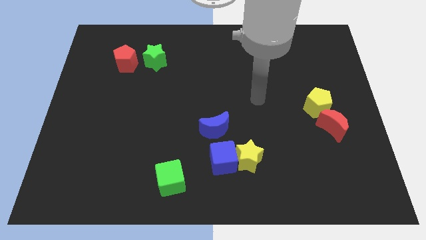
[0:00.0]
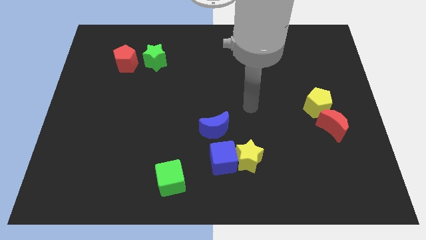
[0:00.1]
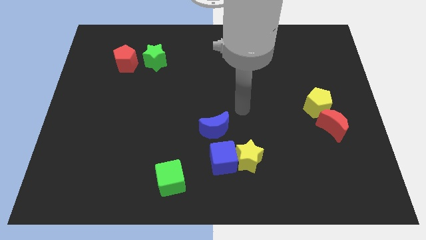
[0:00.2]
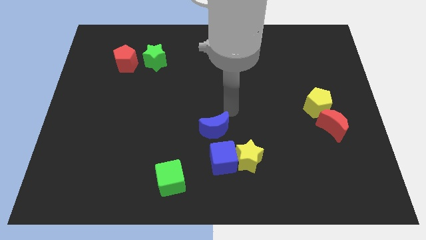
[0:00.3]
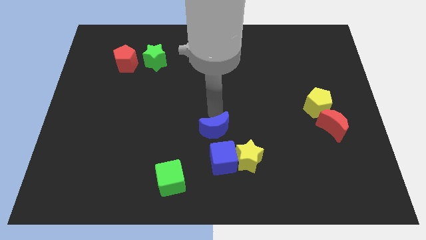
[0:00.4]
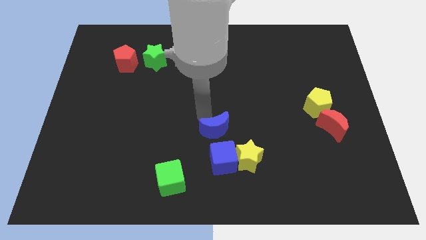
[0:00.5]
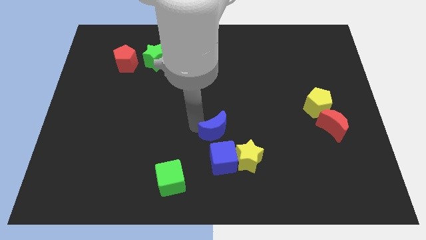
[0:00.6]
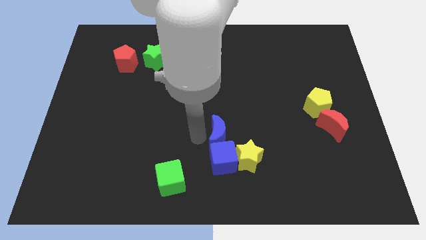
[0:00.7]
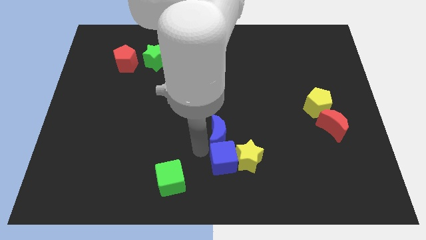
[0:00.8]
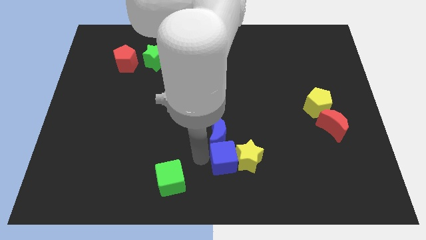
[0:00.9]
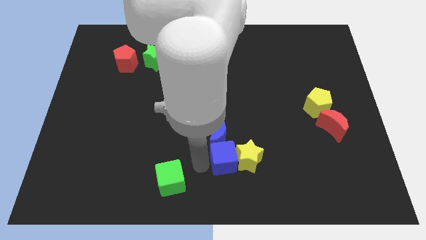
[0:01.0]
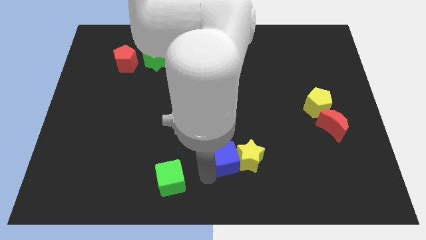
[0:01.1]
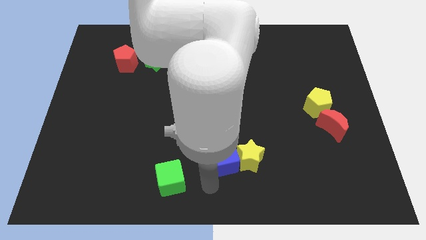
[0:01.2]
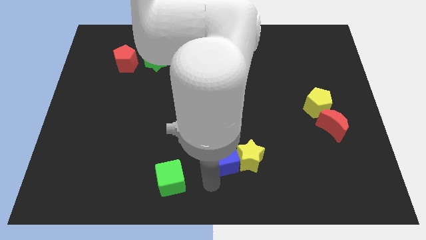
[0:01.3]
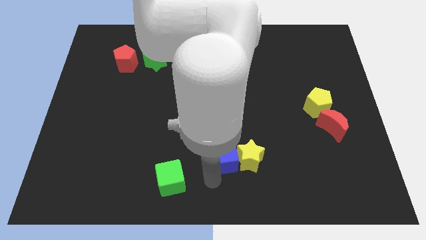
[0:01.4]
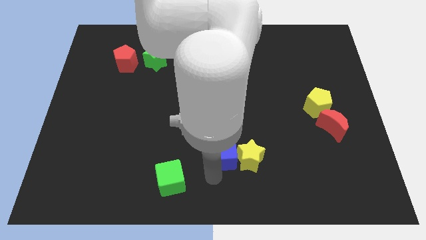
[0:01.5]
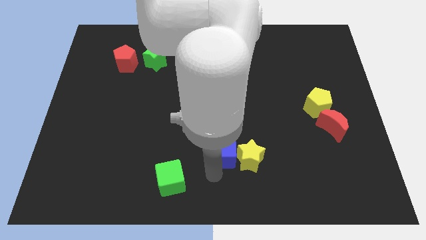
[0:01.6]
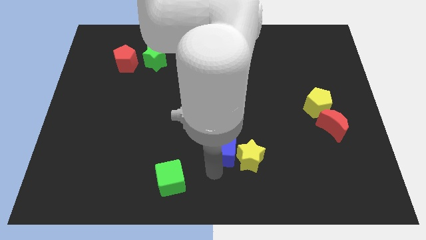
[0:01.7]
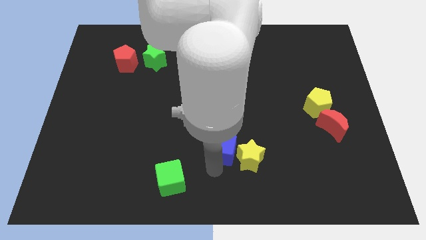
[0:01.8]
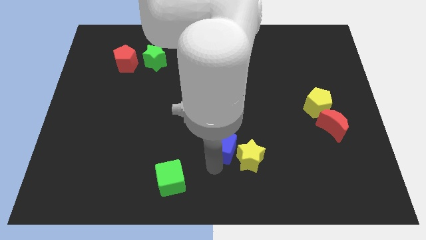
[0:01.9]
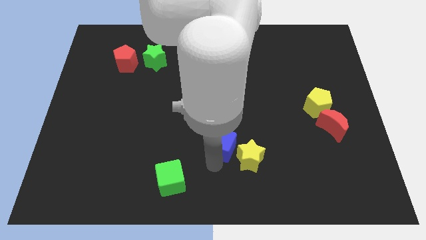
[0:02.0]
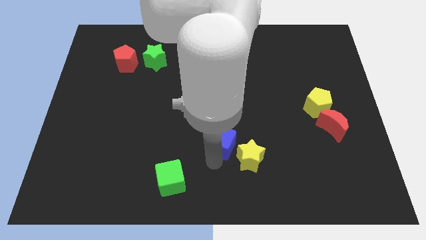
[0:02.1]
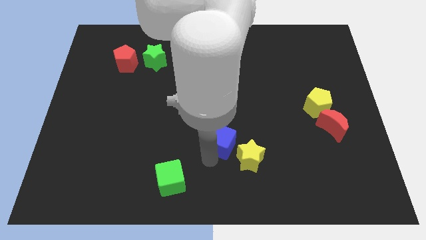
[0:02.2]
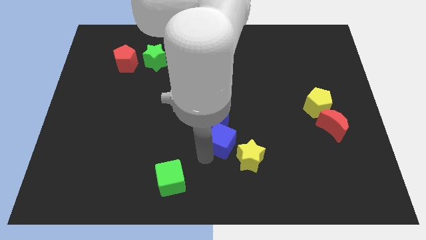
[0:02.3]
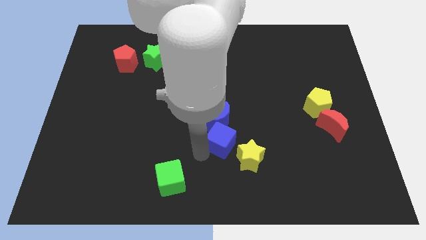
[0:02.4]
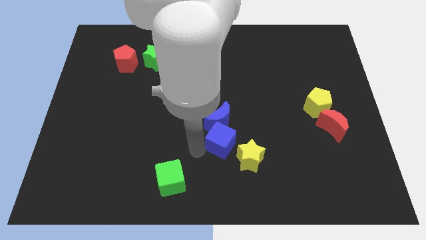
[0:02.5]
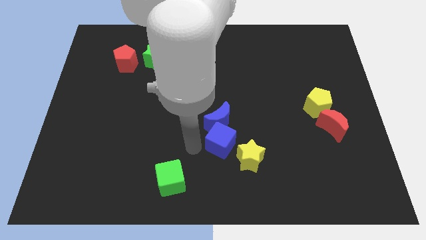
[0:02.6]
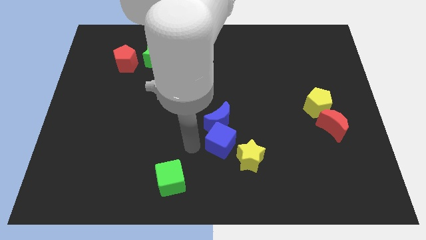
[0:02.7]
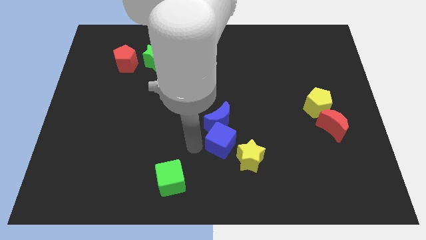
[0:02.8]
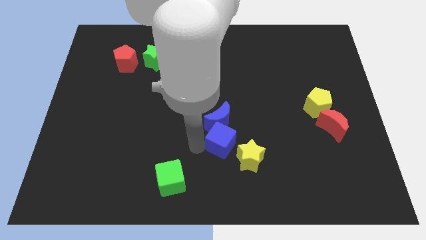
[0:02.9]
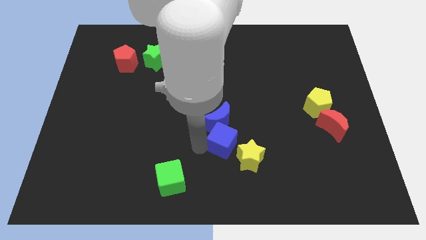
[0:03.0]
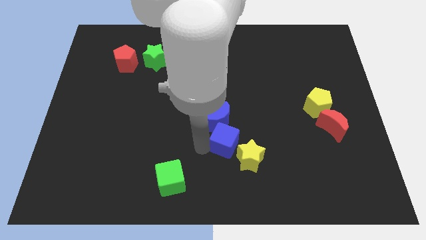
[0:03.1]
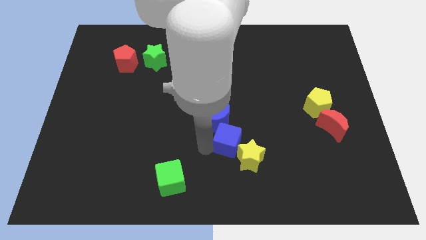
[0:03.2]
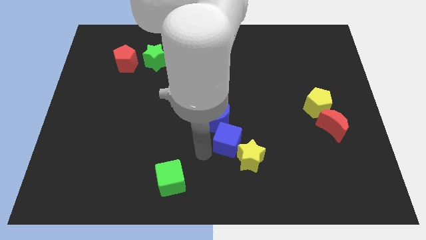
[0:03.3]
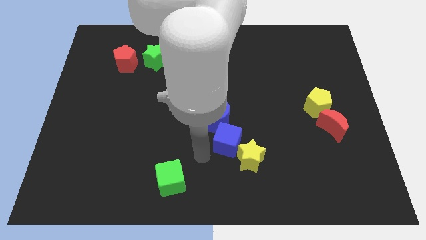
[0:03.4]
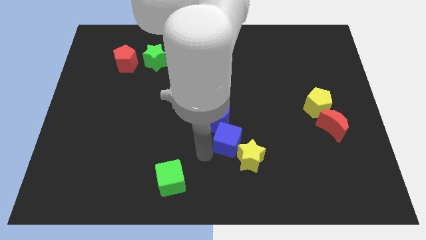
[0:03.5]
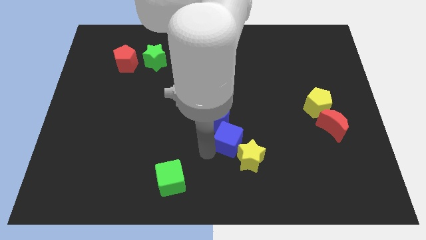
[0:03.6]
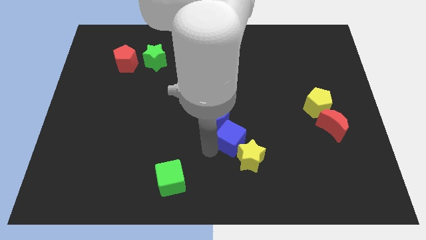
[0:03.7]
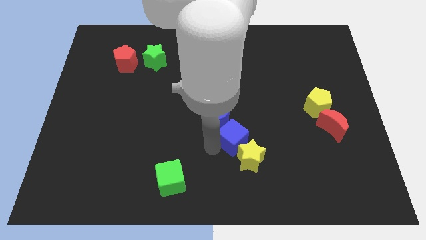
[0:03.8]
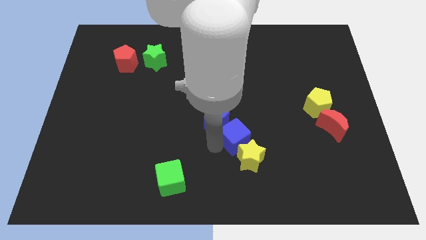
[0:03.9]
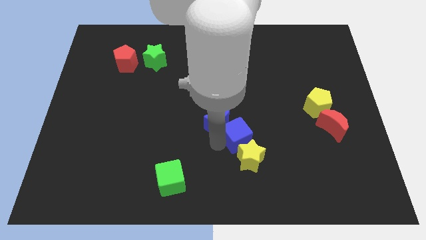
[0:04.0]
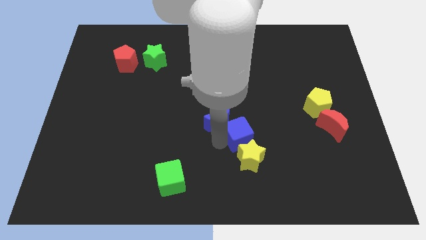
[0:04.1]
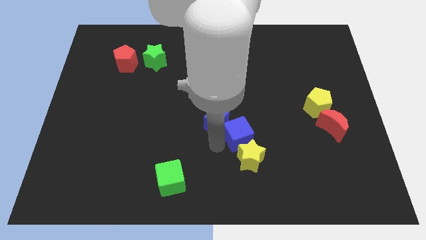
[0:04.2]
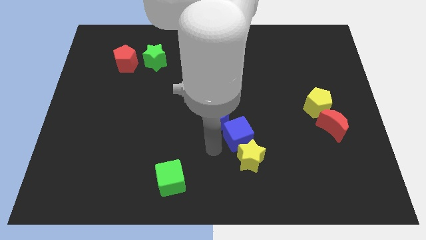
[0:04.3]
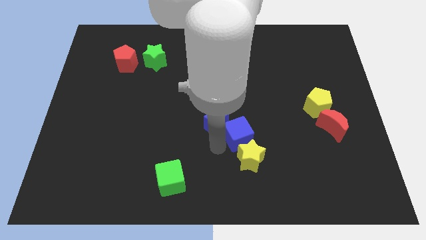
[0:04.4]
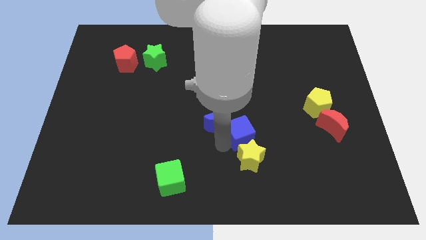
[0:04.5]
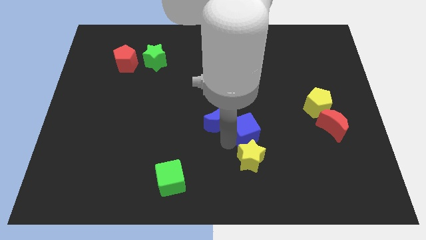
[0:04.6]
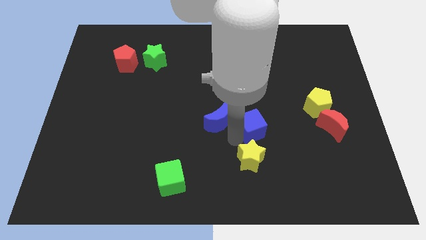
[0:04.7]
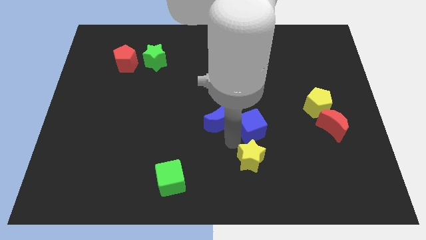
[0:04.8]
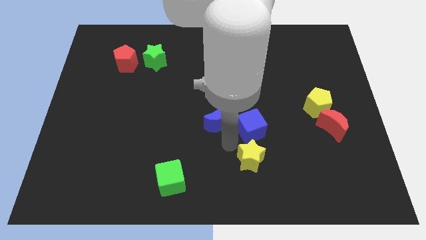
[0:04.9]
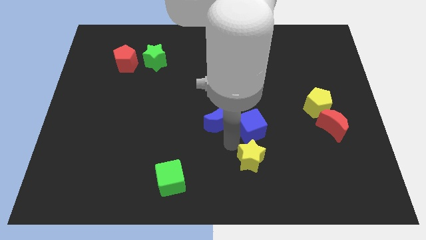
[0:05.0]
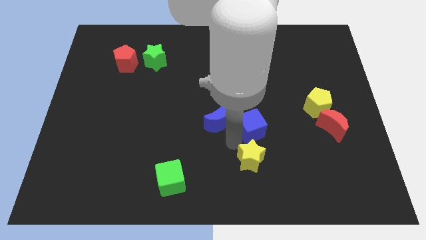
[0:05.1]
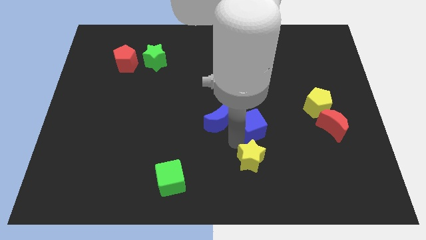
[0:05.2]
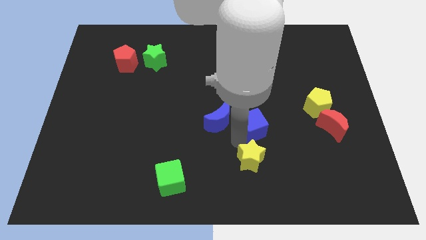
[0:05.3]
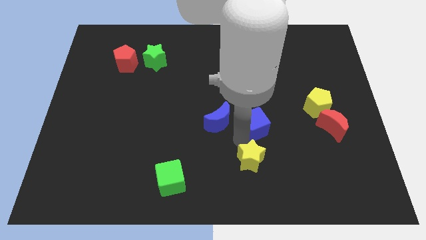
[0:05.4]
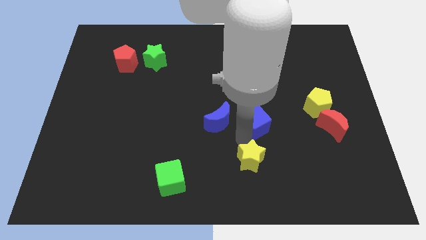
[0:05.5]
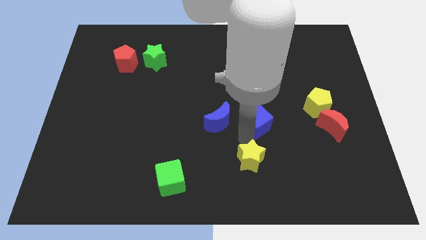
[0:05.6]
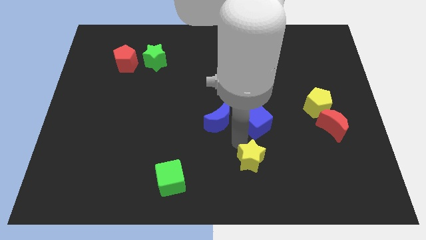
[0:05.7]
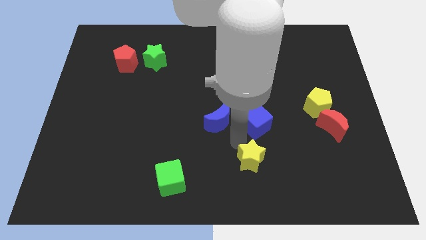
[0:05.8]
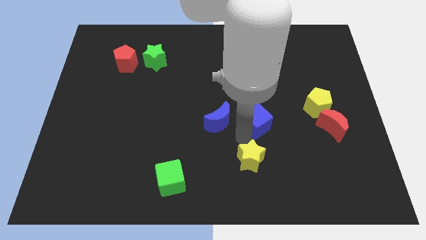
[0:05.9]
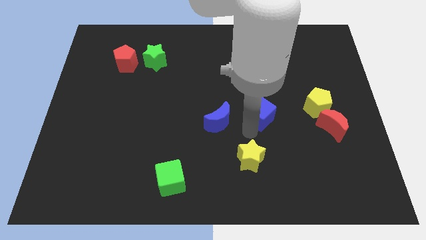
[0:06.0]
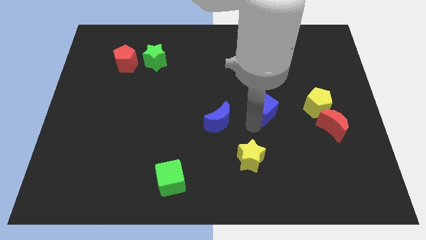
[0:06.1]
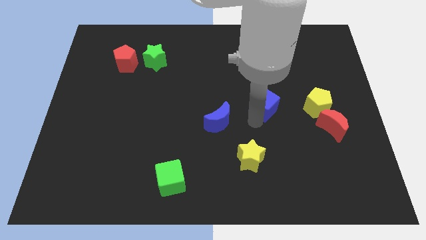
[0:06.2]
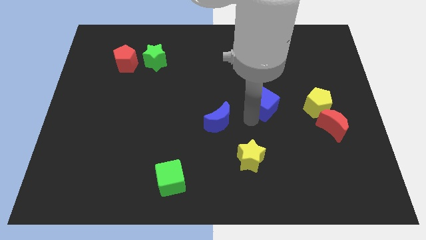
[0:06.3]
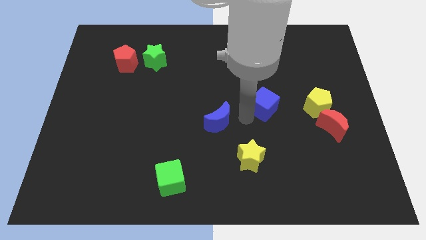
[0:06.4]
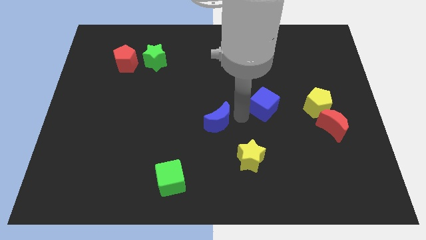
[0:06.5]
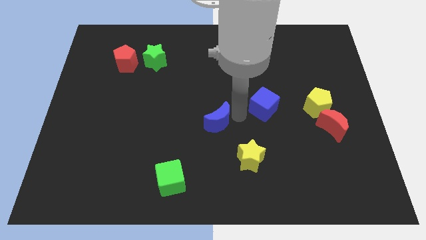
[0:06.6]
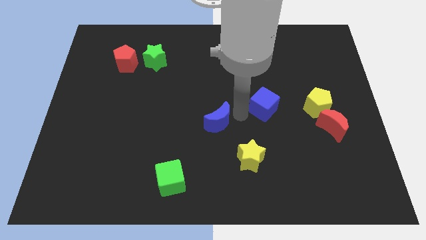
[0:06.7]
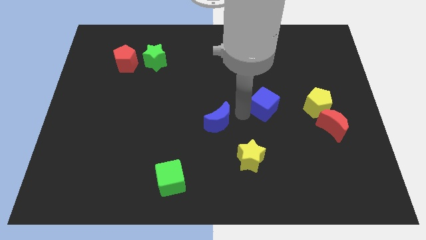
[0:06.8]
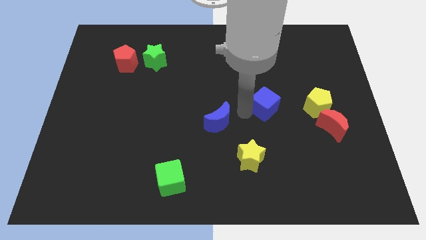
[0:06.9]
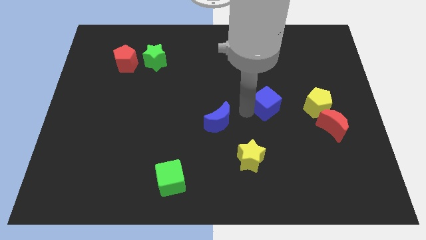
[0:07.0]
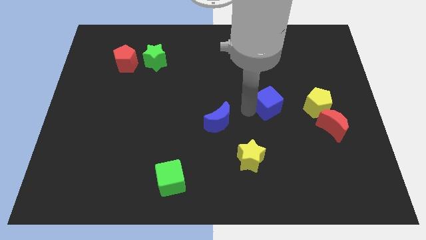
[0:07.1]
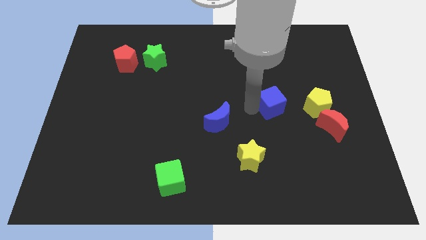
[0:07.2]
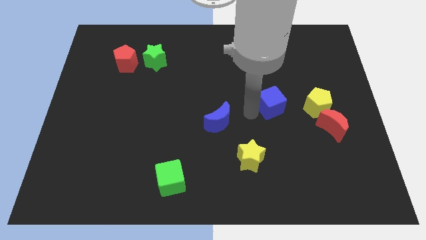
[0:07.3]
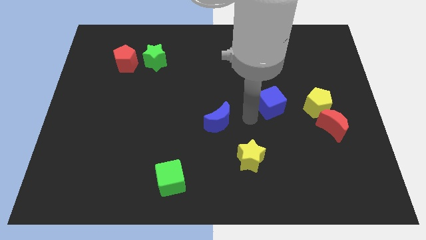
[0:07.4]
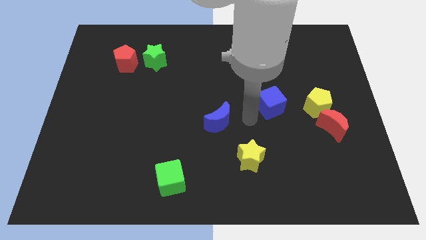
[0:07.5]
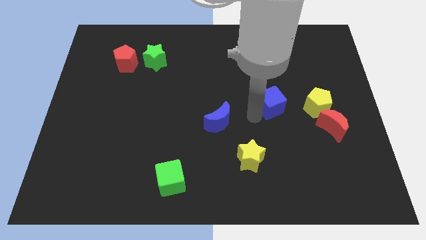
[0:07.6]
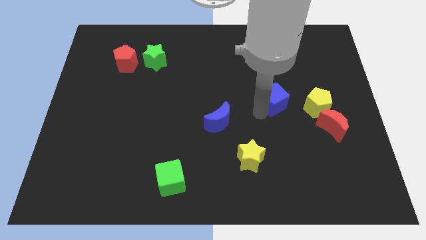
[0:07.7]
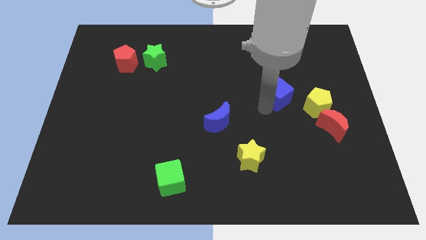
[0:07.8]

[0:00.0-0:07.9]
move the blue cube diagonally upwards and right
